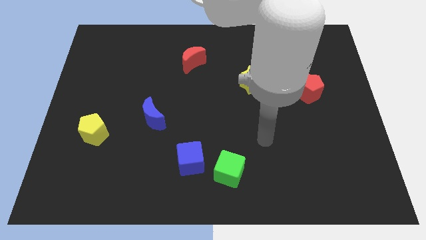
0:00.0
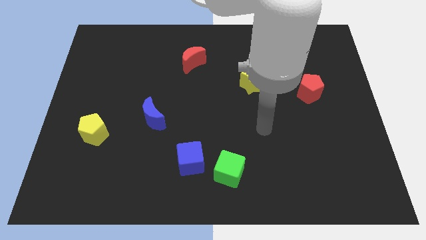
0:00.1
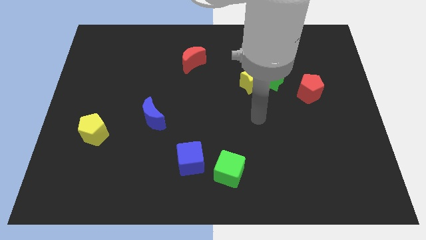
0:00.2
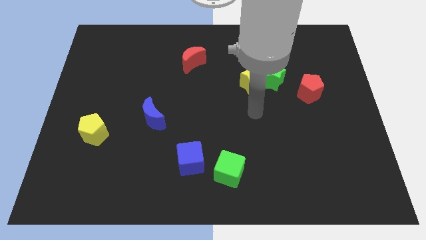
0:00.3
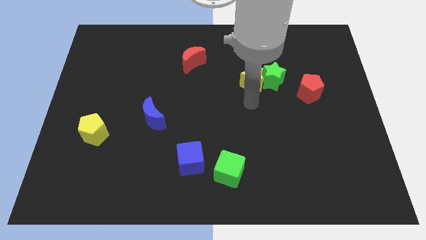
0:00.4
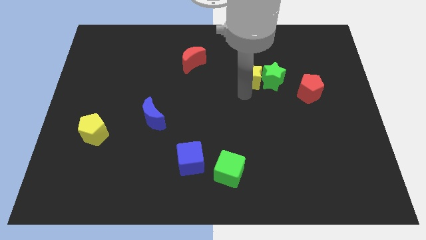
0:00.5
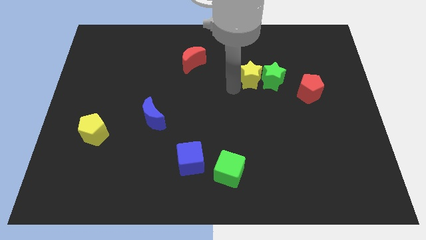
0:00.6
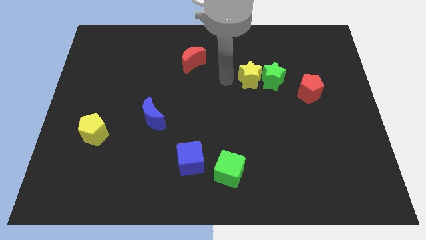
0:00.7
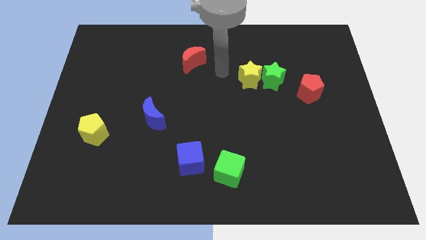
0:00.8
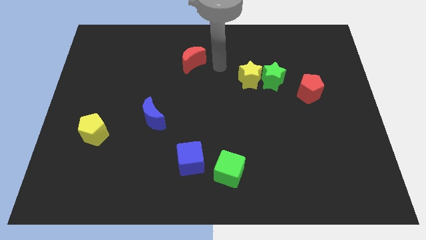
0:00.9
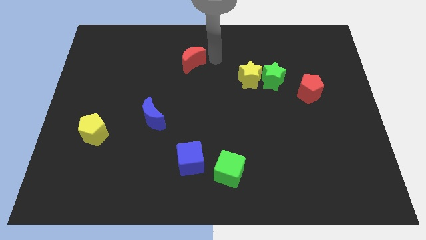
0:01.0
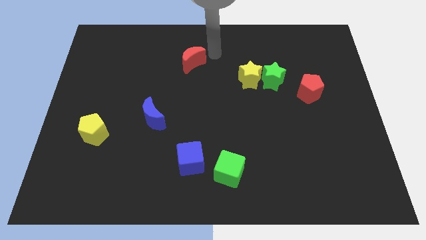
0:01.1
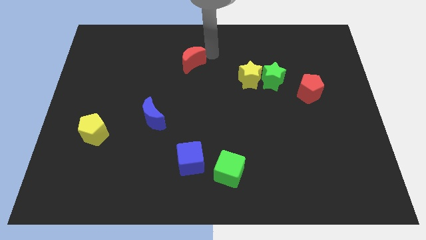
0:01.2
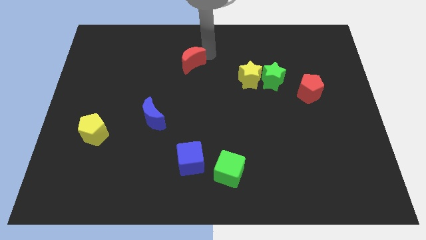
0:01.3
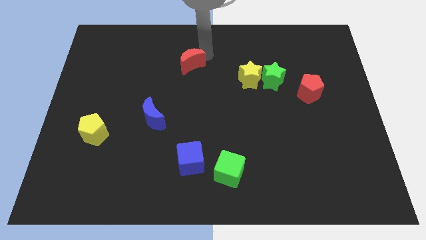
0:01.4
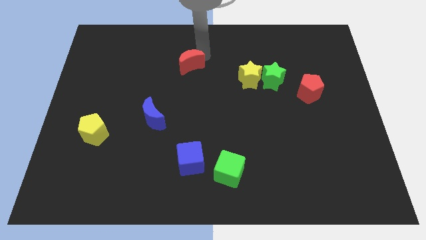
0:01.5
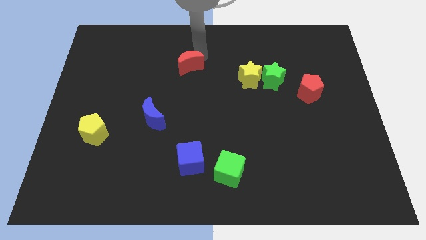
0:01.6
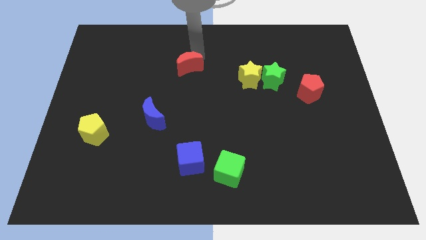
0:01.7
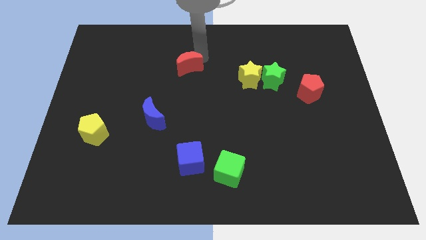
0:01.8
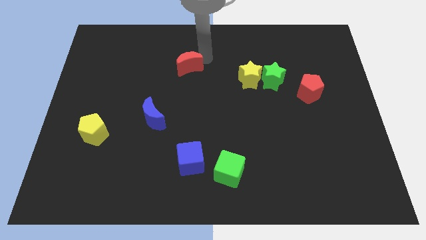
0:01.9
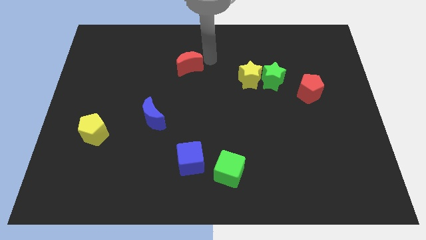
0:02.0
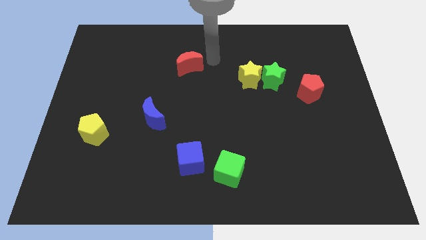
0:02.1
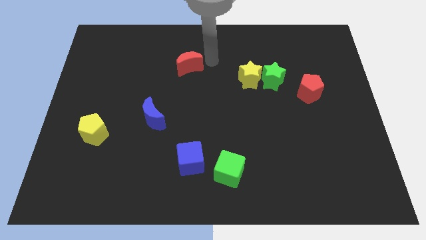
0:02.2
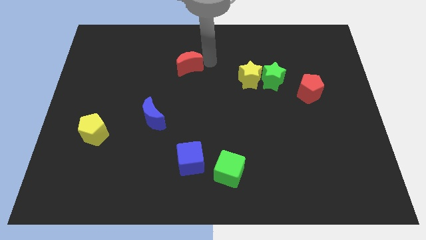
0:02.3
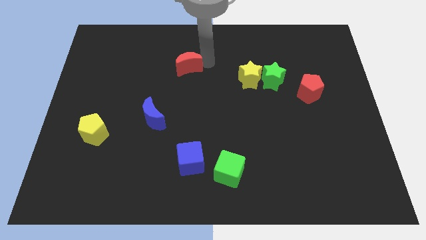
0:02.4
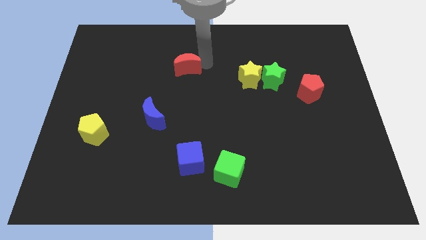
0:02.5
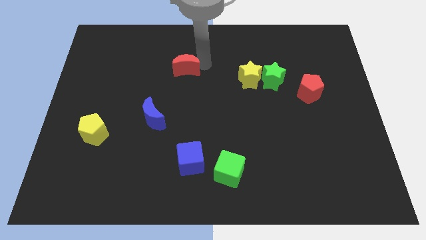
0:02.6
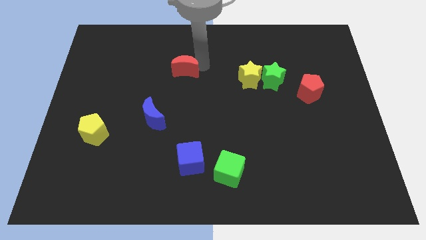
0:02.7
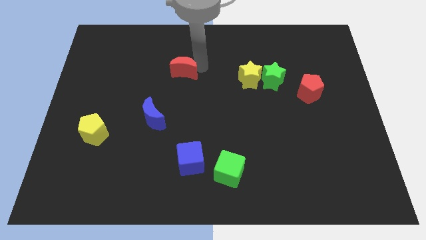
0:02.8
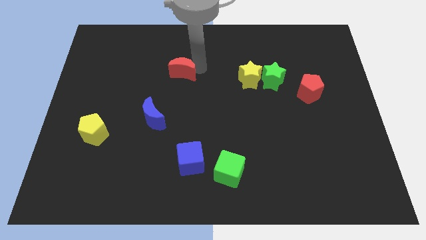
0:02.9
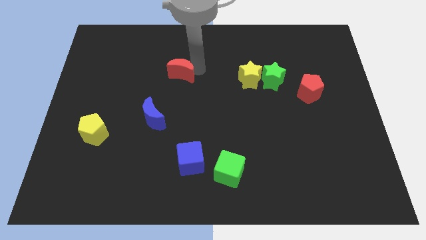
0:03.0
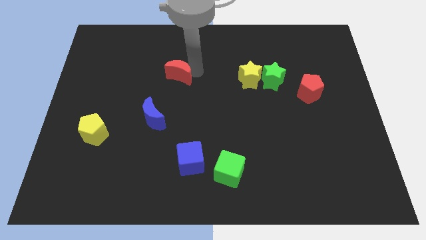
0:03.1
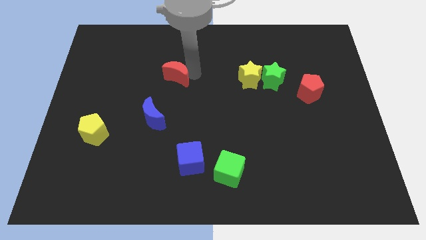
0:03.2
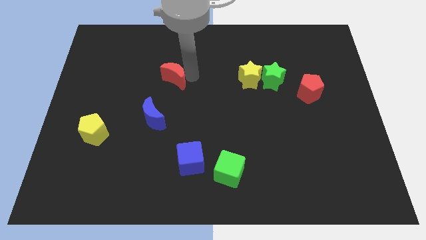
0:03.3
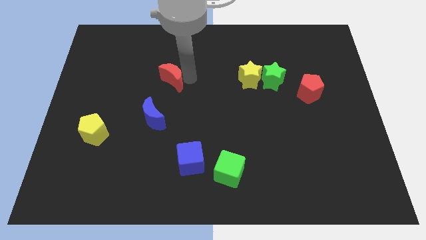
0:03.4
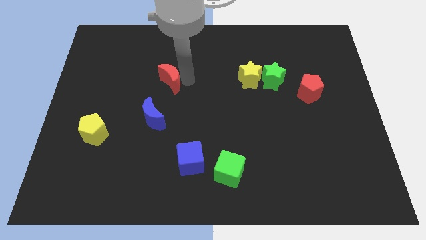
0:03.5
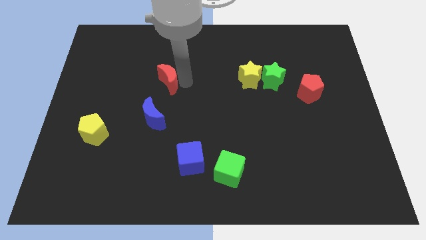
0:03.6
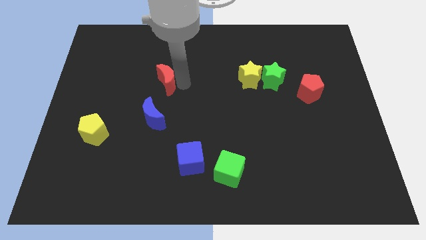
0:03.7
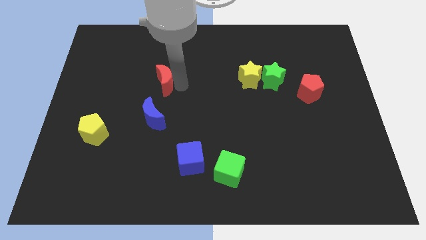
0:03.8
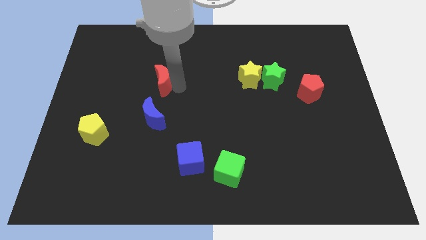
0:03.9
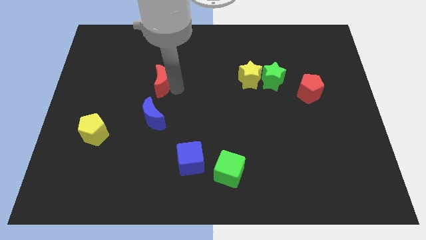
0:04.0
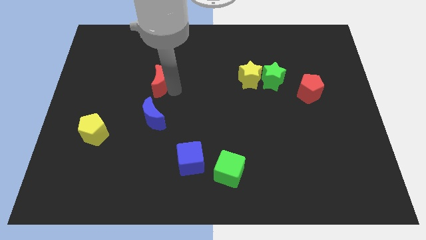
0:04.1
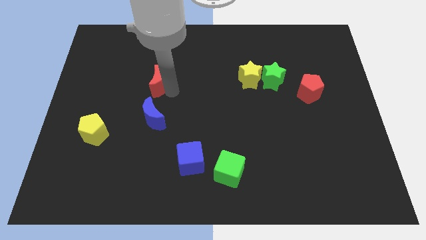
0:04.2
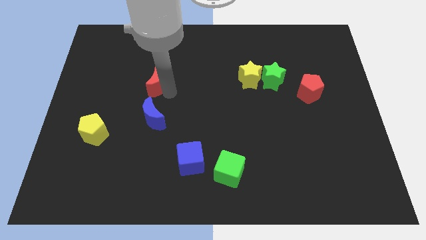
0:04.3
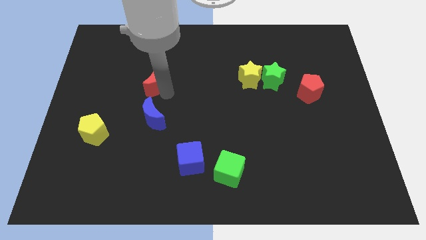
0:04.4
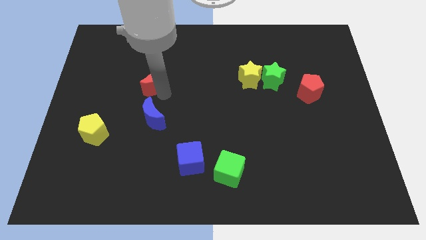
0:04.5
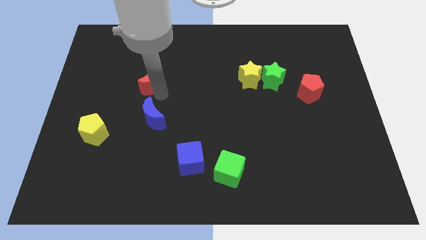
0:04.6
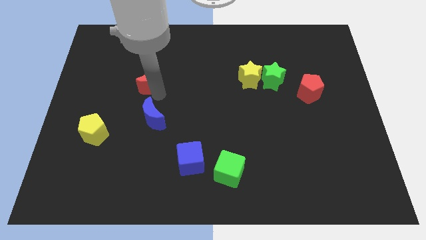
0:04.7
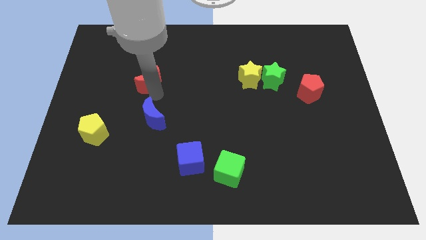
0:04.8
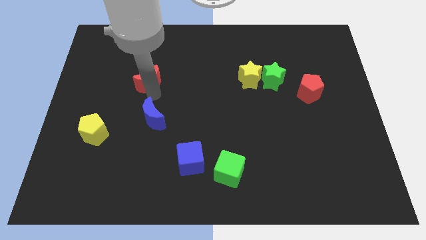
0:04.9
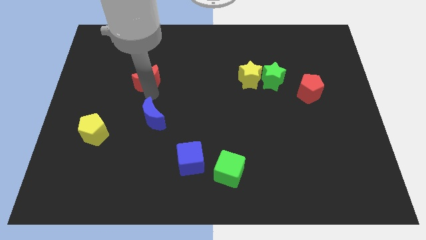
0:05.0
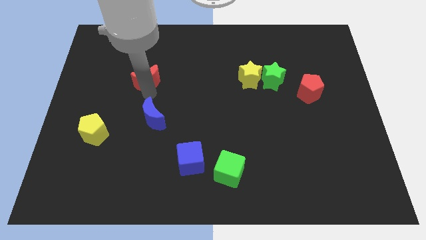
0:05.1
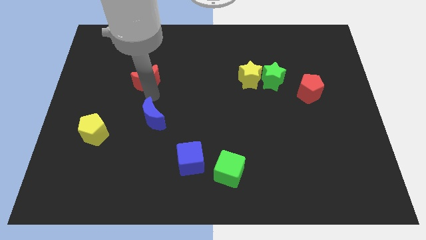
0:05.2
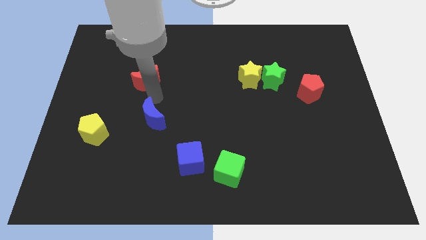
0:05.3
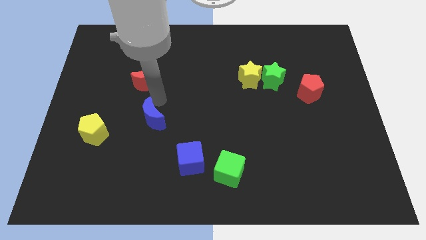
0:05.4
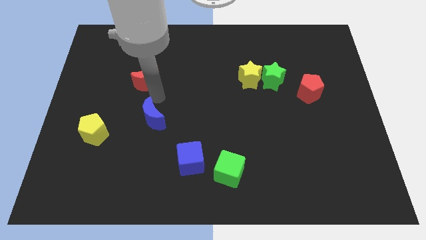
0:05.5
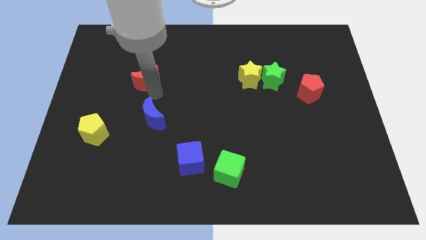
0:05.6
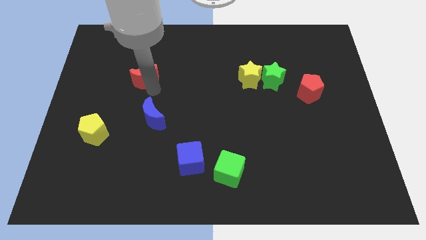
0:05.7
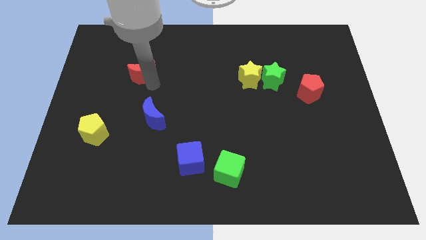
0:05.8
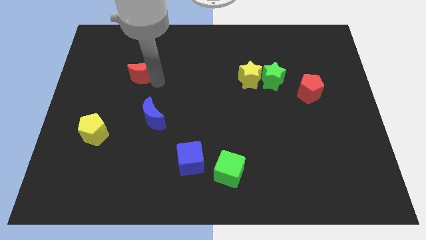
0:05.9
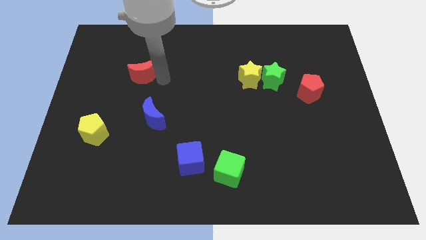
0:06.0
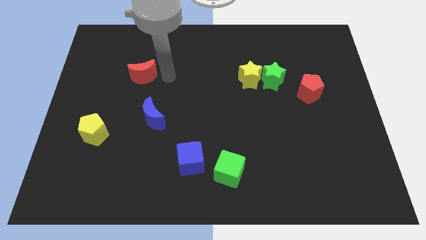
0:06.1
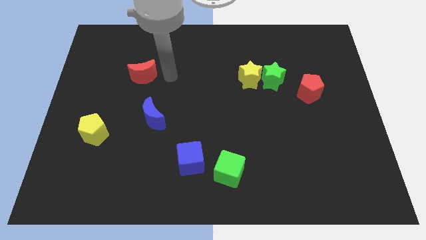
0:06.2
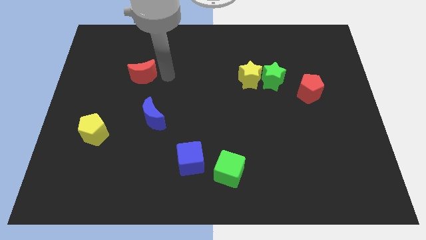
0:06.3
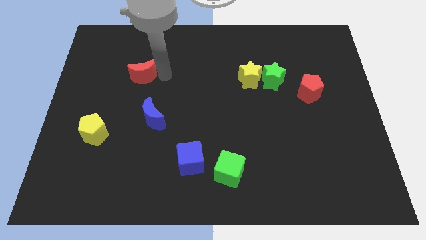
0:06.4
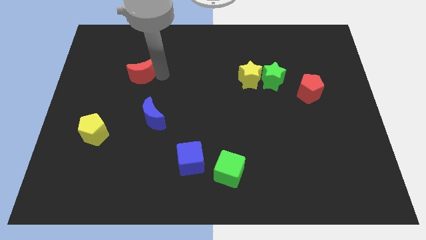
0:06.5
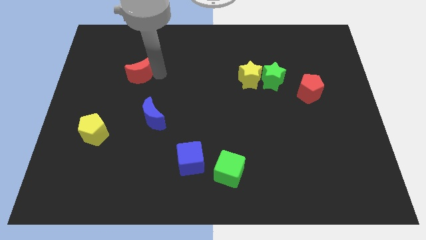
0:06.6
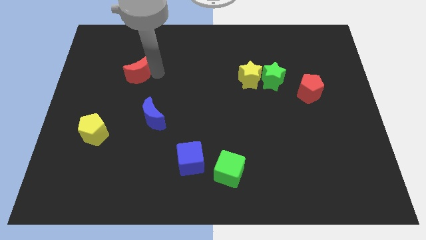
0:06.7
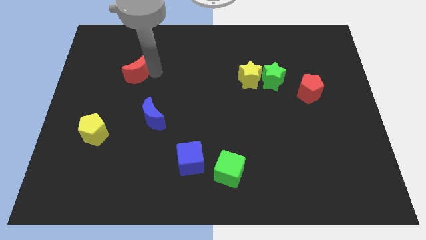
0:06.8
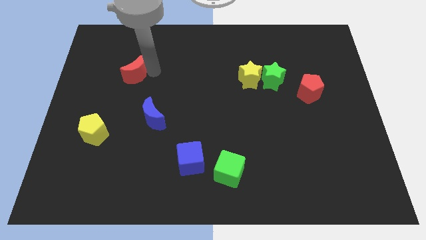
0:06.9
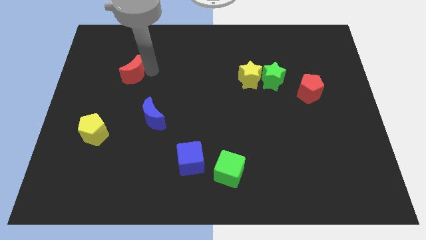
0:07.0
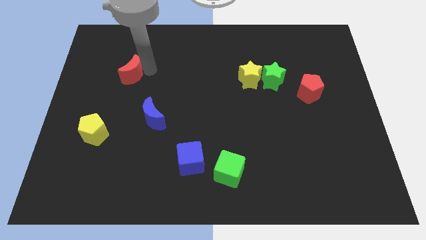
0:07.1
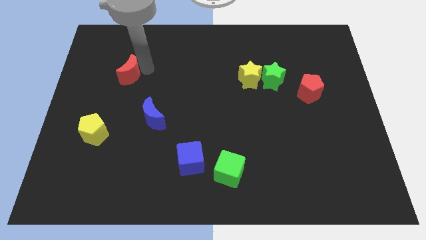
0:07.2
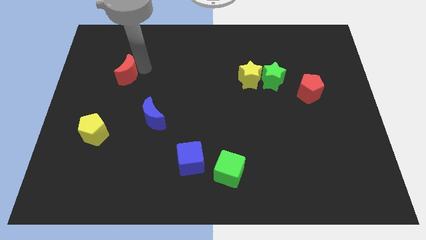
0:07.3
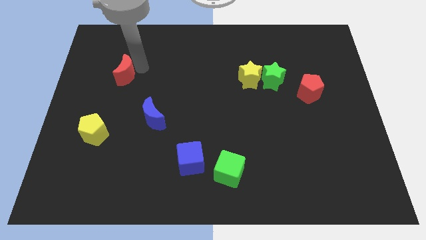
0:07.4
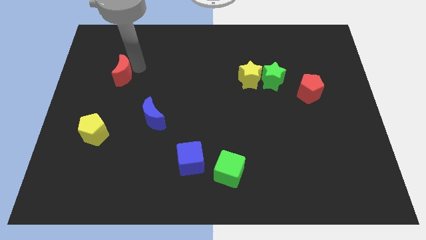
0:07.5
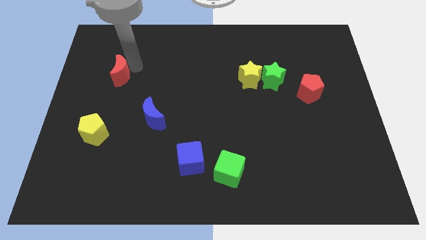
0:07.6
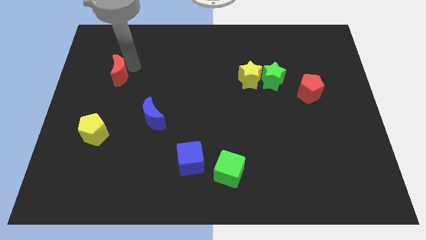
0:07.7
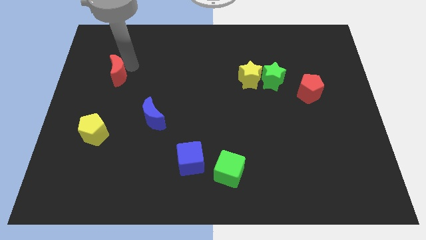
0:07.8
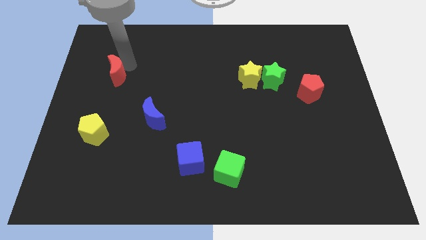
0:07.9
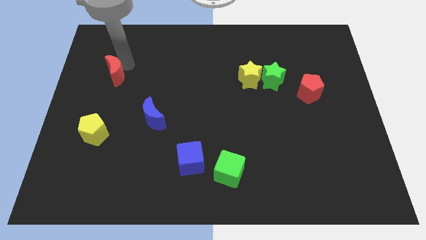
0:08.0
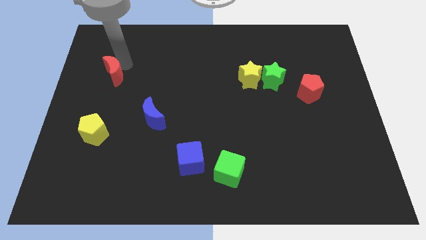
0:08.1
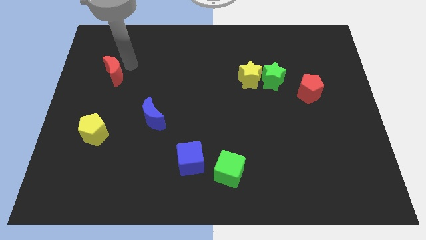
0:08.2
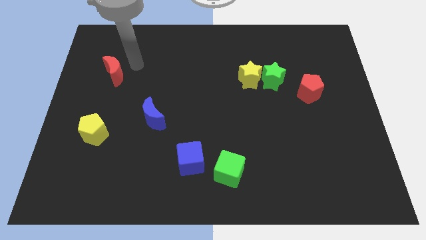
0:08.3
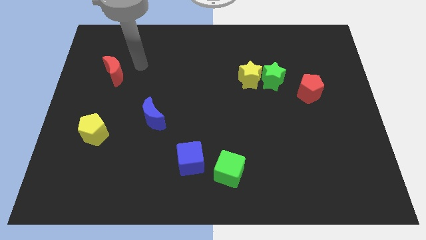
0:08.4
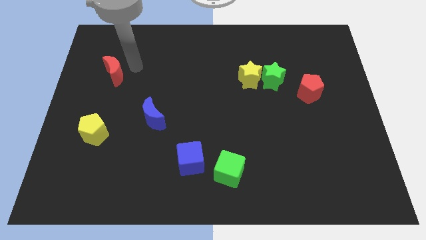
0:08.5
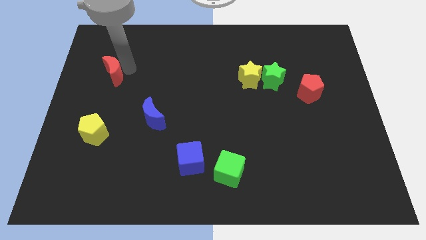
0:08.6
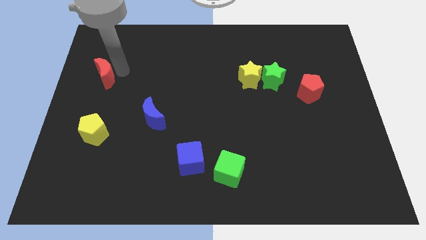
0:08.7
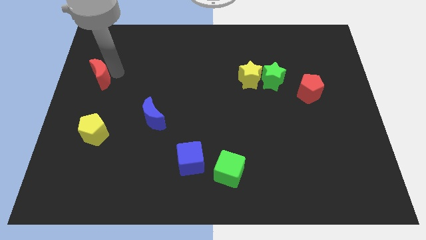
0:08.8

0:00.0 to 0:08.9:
put the red moon to the left side of the board
